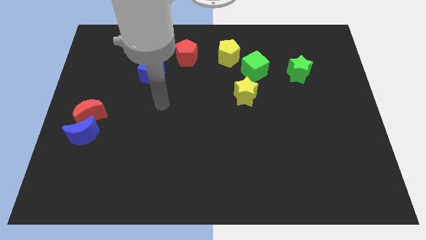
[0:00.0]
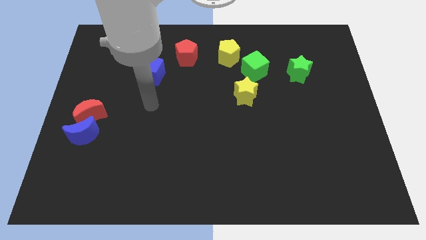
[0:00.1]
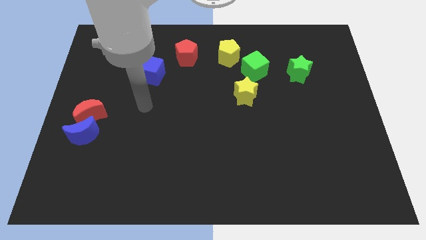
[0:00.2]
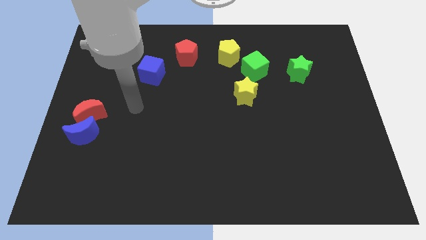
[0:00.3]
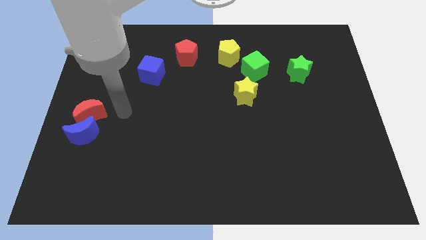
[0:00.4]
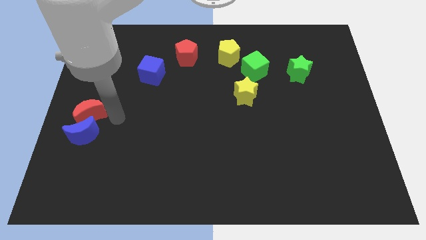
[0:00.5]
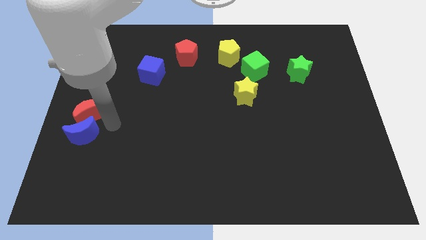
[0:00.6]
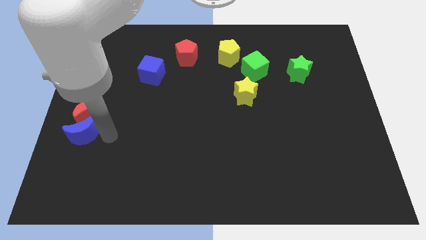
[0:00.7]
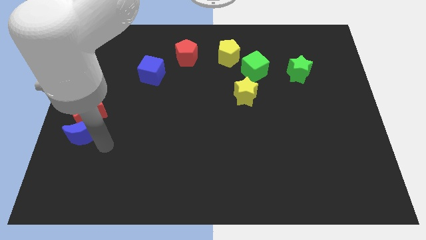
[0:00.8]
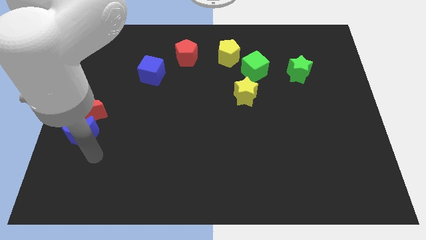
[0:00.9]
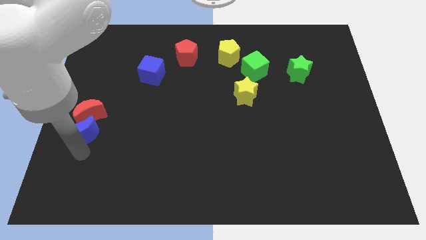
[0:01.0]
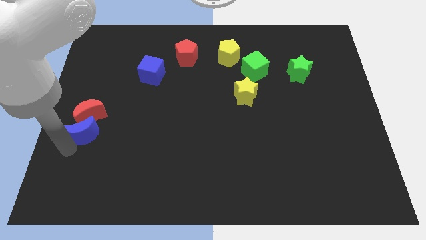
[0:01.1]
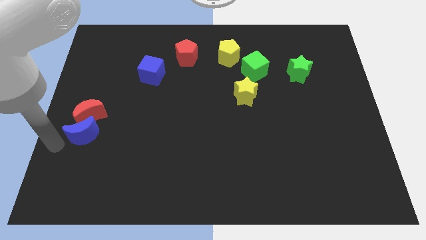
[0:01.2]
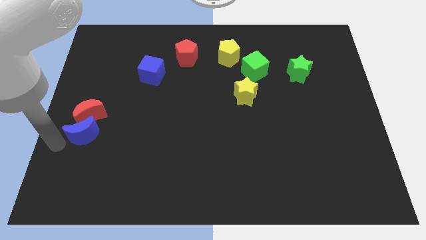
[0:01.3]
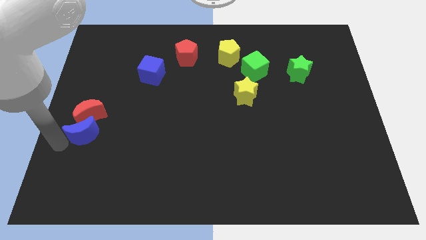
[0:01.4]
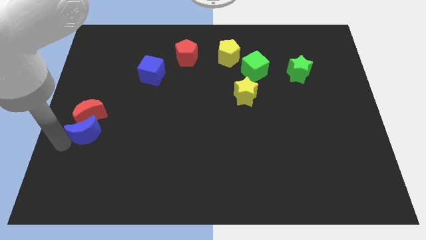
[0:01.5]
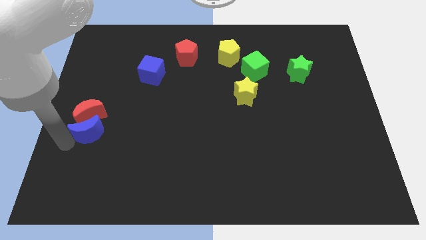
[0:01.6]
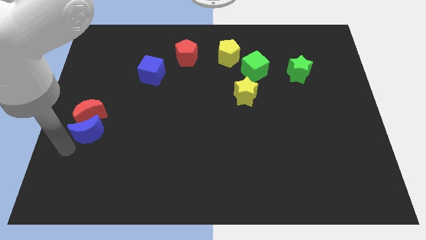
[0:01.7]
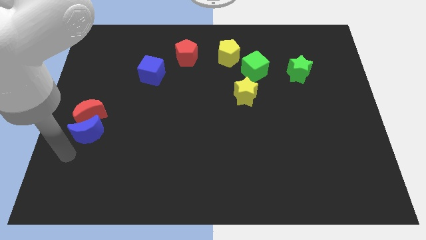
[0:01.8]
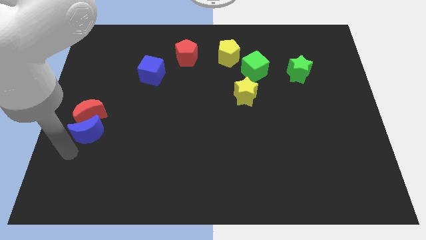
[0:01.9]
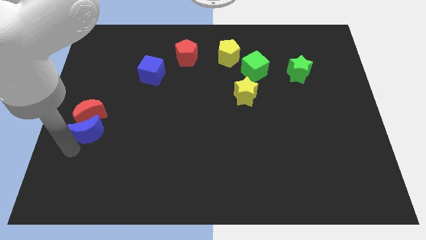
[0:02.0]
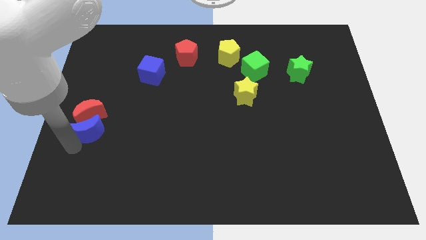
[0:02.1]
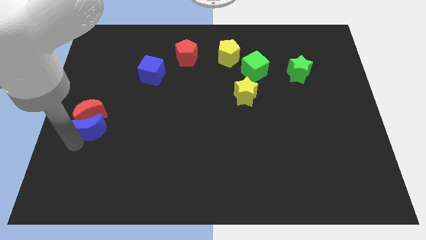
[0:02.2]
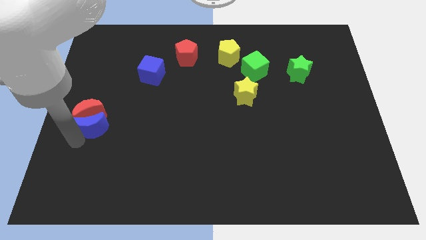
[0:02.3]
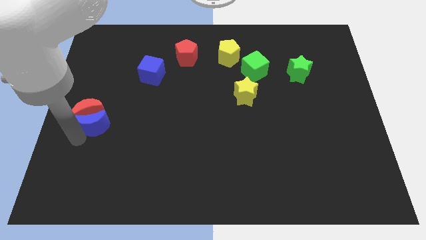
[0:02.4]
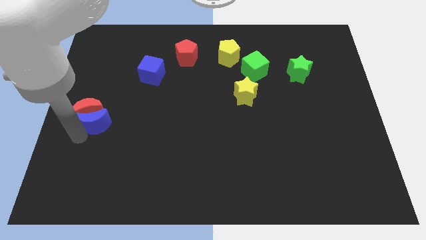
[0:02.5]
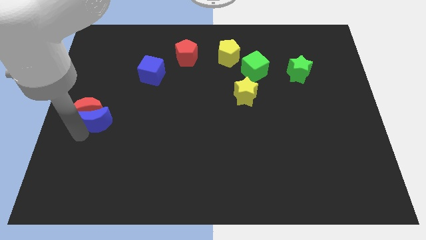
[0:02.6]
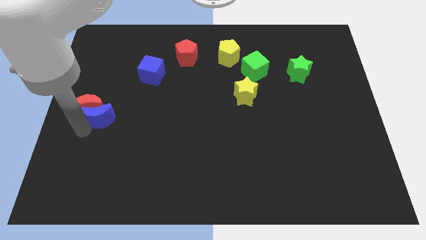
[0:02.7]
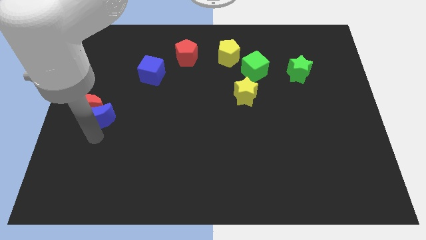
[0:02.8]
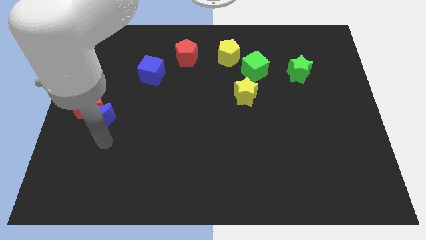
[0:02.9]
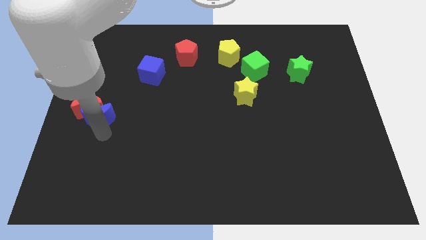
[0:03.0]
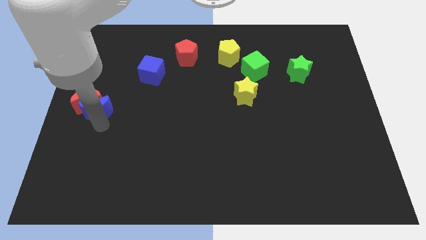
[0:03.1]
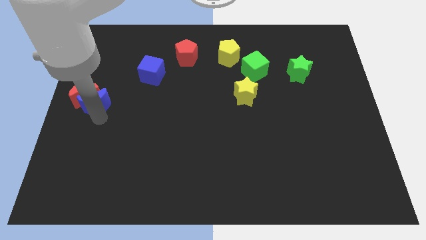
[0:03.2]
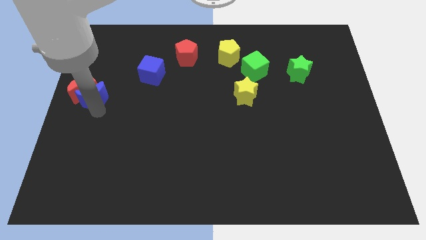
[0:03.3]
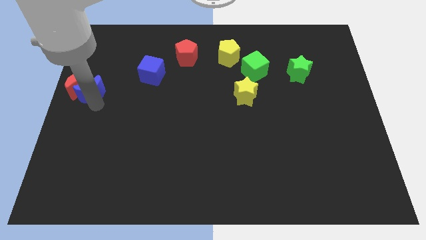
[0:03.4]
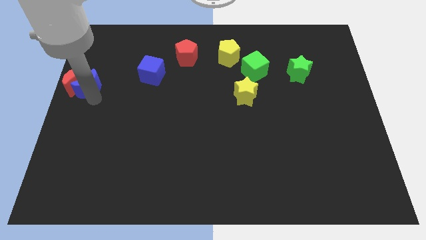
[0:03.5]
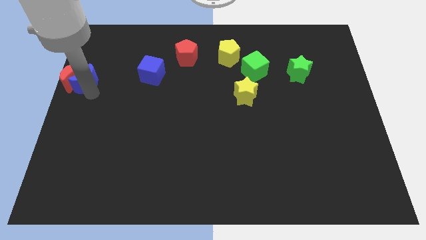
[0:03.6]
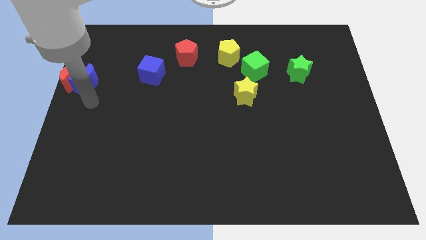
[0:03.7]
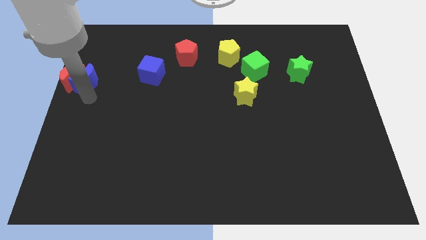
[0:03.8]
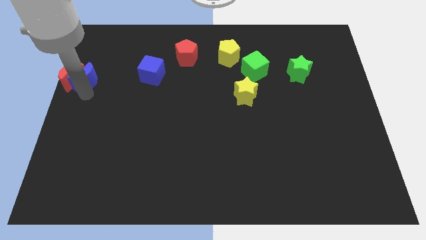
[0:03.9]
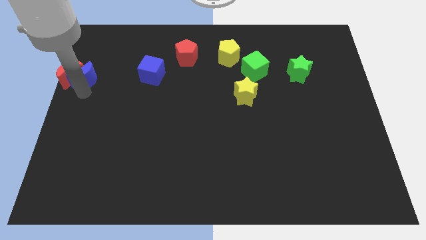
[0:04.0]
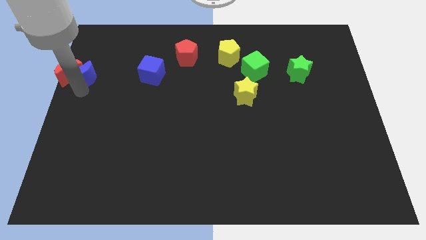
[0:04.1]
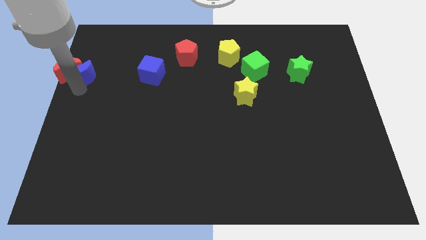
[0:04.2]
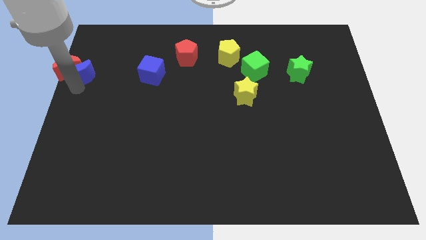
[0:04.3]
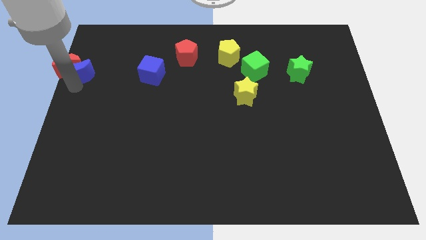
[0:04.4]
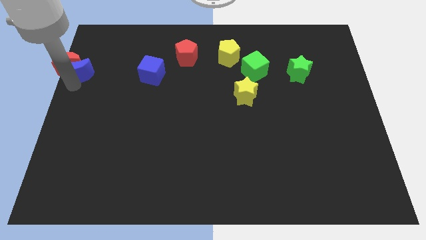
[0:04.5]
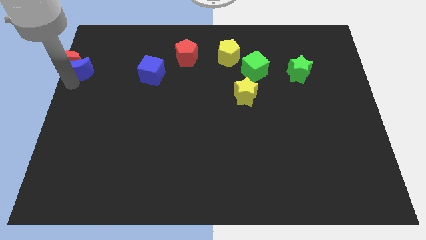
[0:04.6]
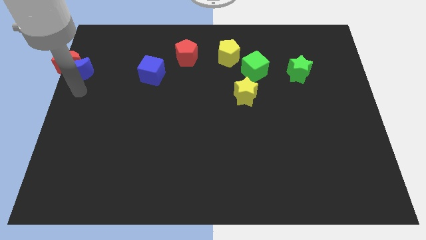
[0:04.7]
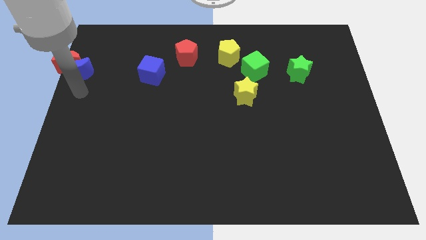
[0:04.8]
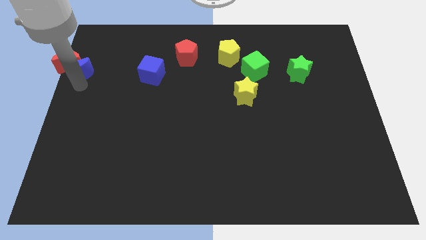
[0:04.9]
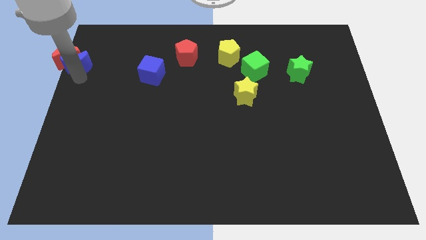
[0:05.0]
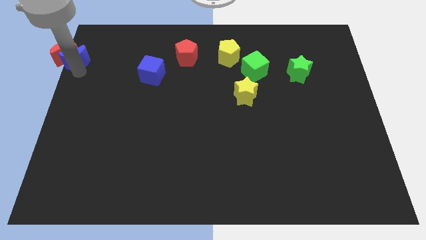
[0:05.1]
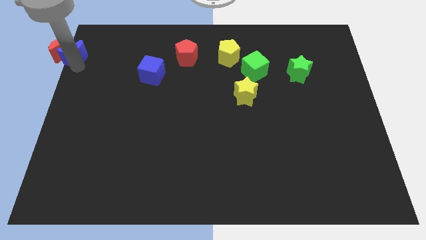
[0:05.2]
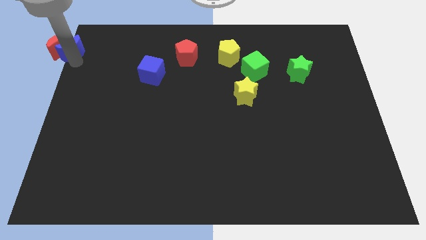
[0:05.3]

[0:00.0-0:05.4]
put the blue moon to the top left corner
